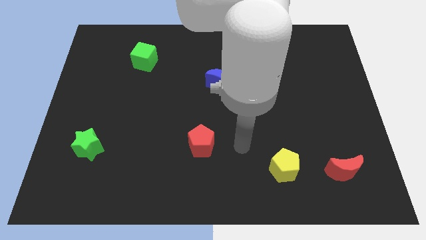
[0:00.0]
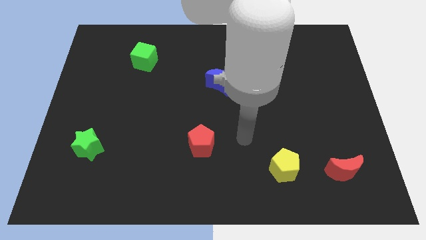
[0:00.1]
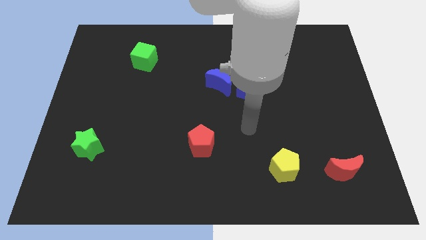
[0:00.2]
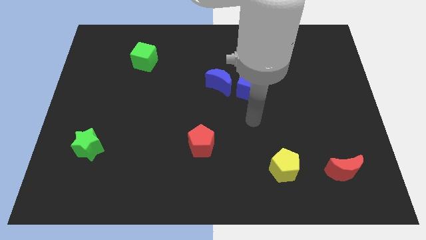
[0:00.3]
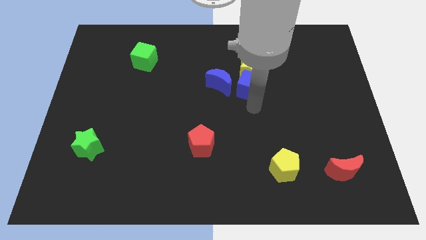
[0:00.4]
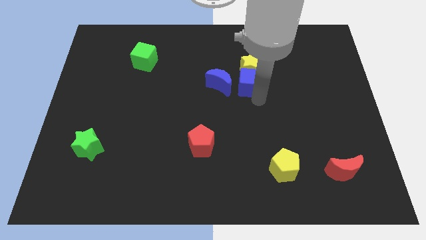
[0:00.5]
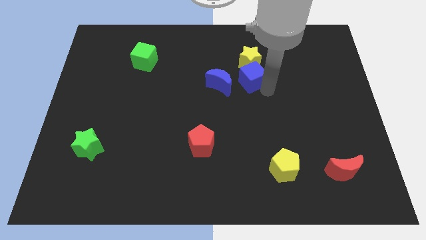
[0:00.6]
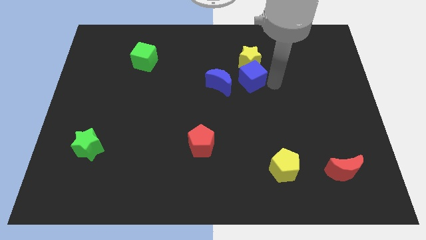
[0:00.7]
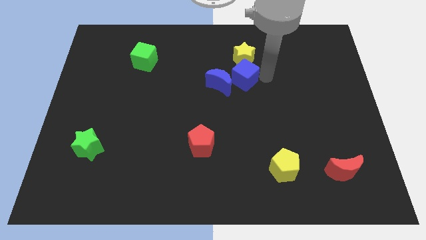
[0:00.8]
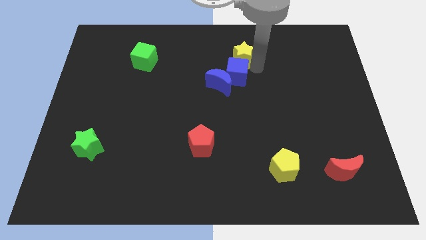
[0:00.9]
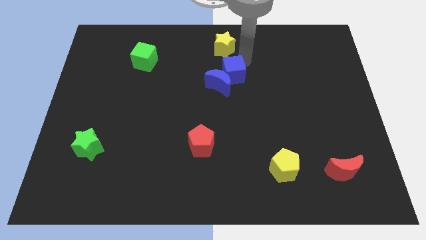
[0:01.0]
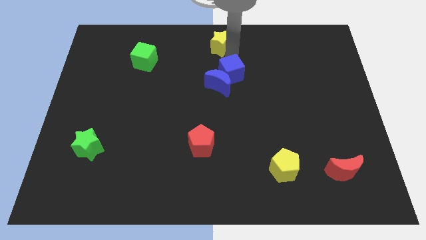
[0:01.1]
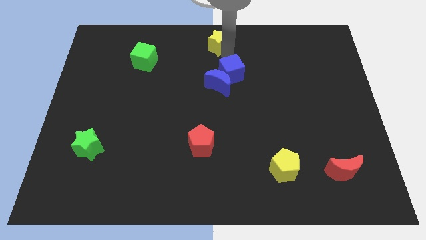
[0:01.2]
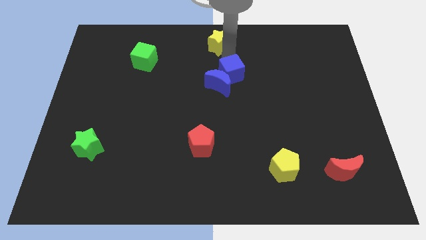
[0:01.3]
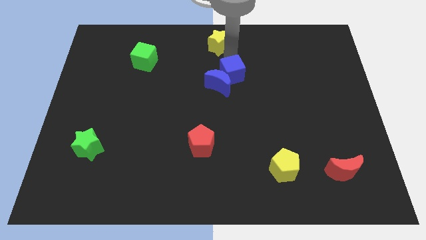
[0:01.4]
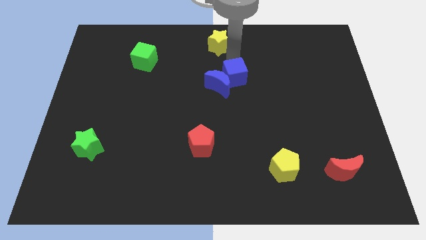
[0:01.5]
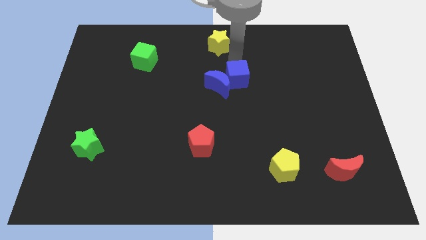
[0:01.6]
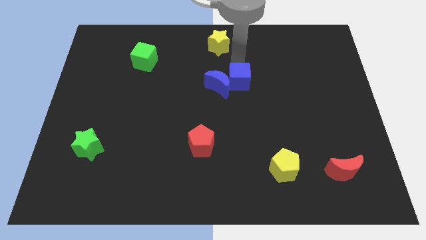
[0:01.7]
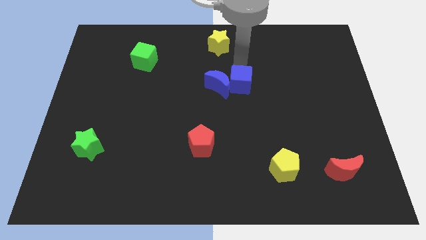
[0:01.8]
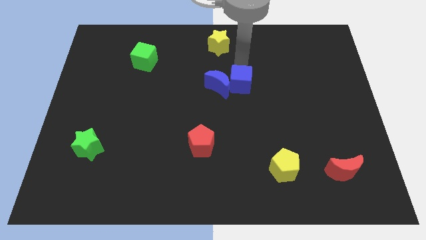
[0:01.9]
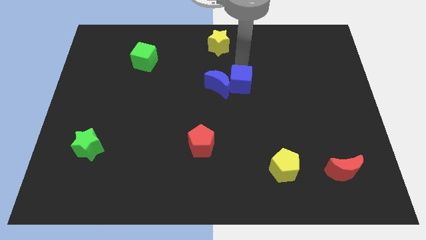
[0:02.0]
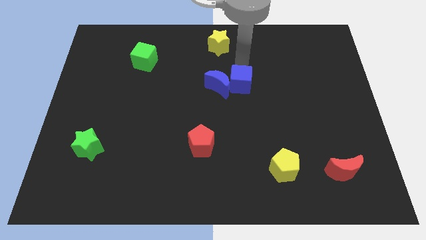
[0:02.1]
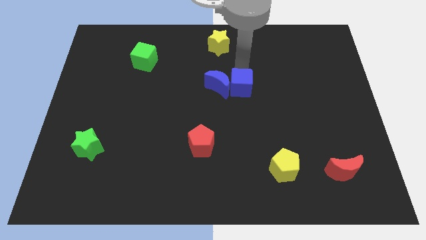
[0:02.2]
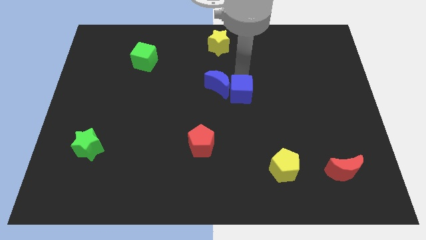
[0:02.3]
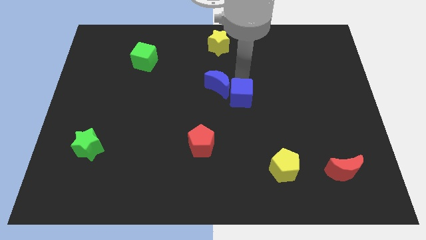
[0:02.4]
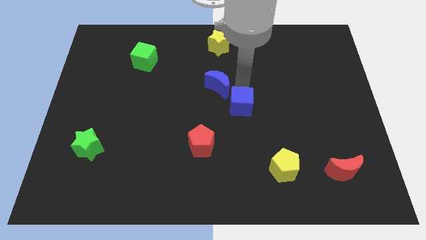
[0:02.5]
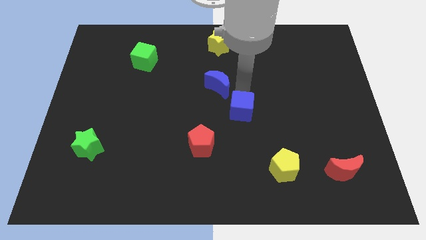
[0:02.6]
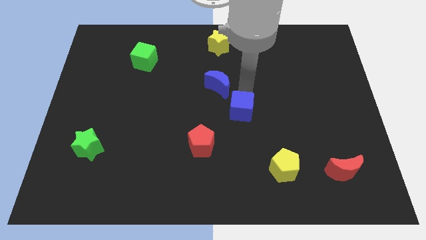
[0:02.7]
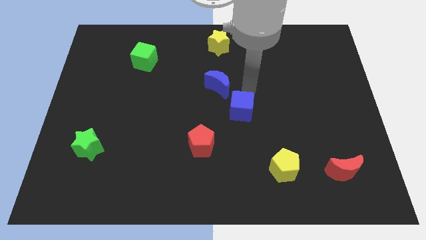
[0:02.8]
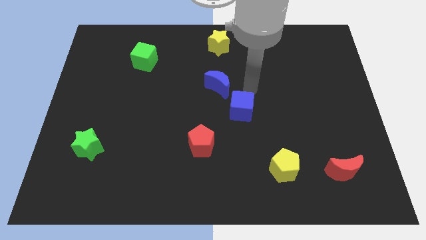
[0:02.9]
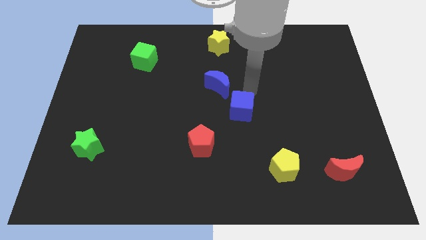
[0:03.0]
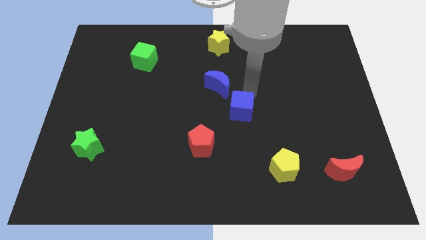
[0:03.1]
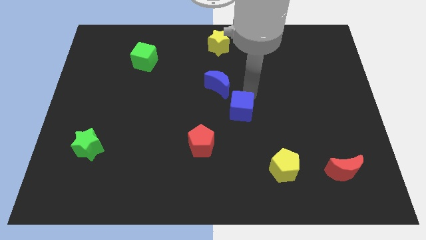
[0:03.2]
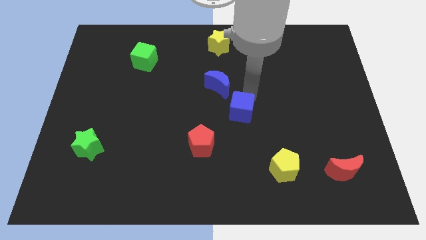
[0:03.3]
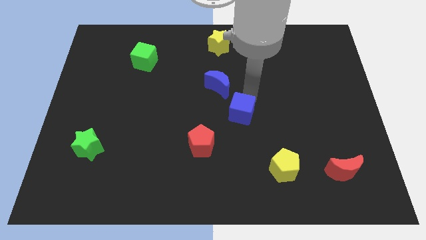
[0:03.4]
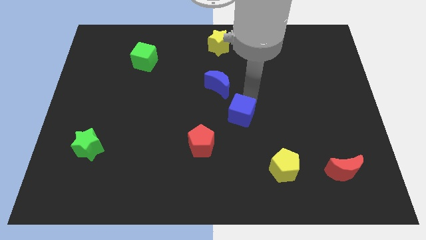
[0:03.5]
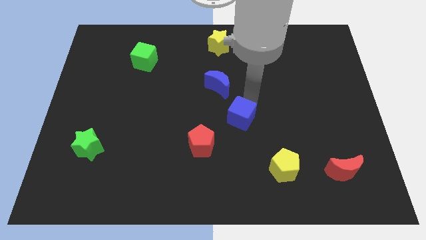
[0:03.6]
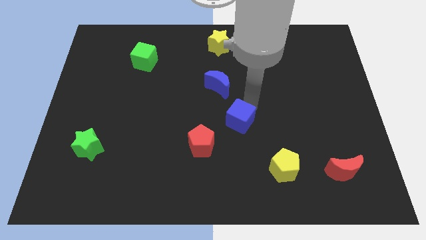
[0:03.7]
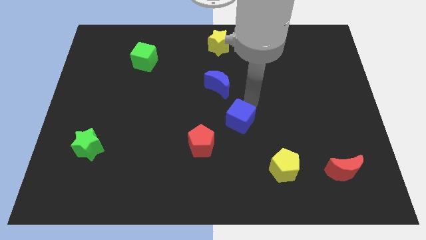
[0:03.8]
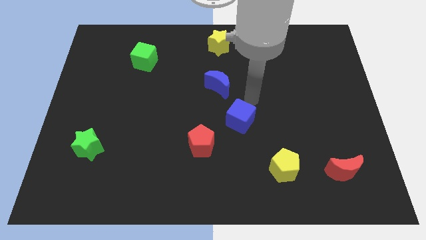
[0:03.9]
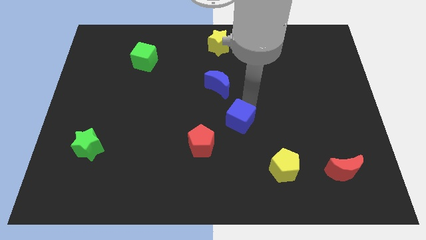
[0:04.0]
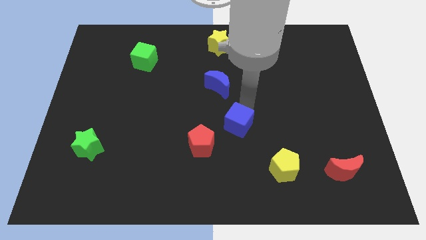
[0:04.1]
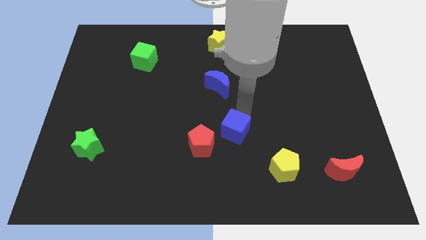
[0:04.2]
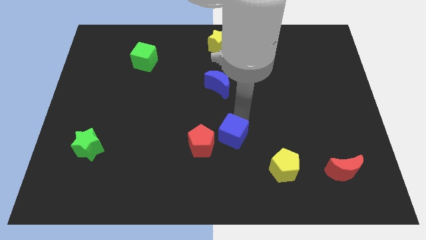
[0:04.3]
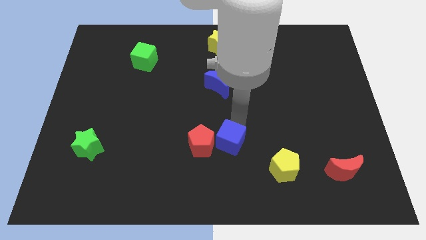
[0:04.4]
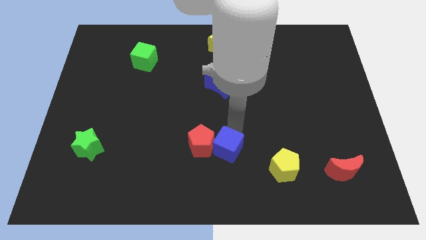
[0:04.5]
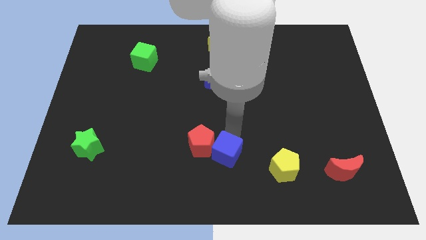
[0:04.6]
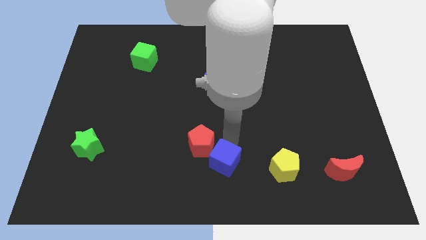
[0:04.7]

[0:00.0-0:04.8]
slide the blue cube to the bottom side

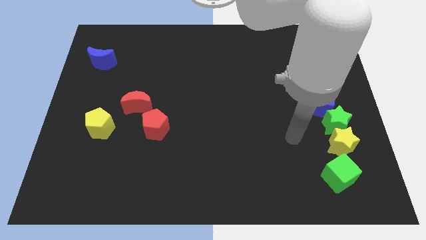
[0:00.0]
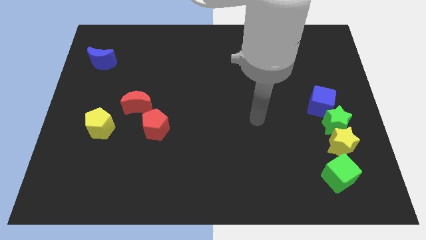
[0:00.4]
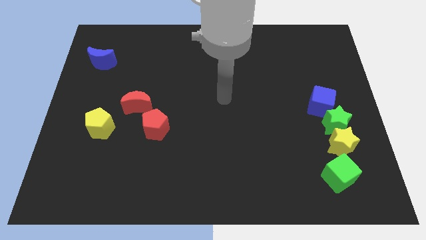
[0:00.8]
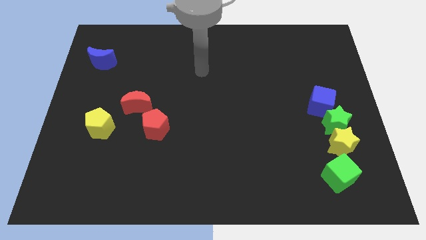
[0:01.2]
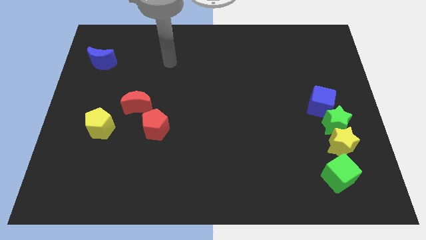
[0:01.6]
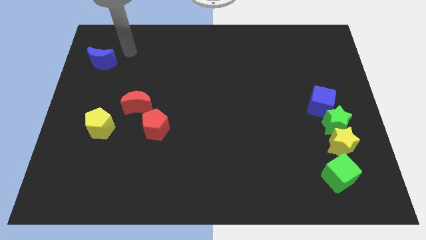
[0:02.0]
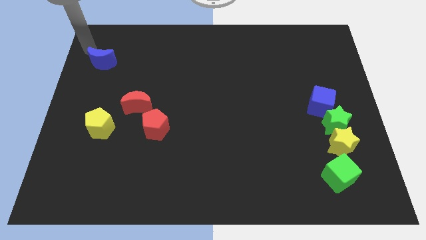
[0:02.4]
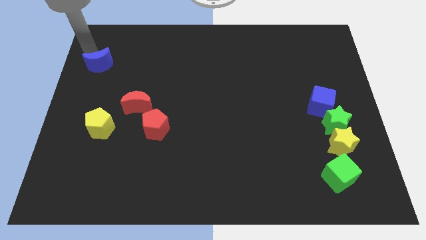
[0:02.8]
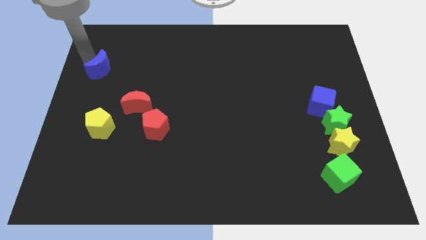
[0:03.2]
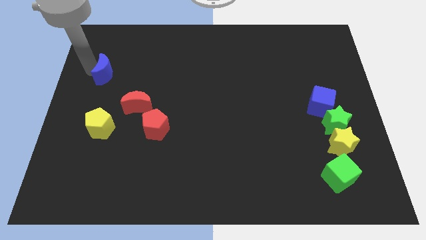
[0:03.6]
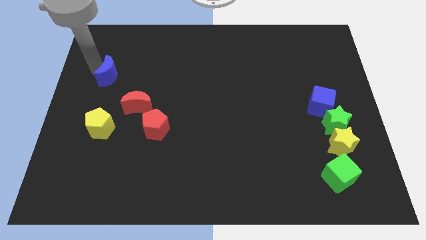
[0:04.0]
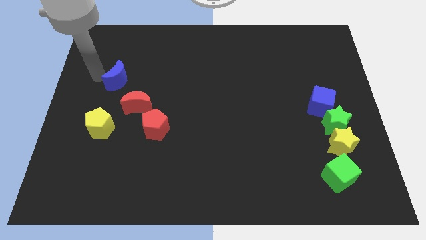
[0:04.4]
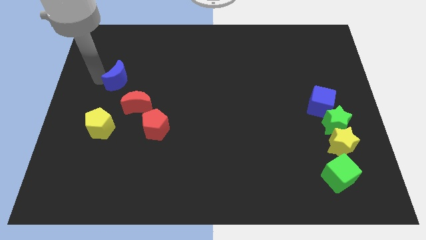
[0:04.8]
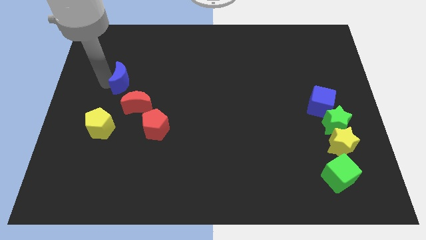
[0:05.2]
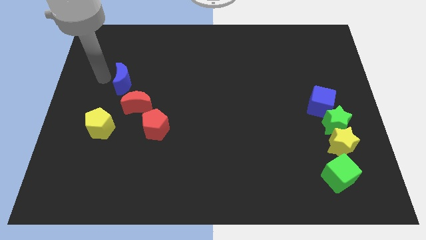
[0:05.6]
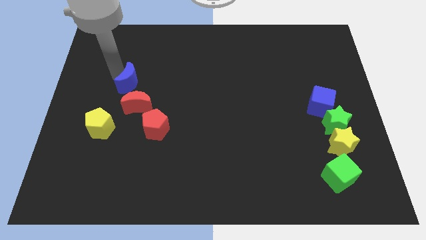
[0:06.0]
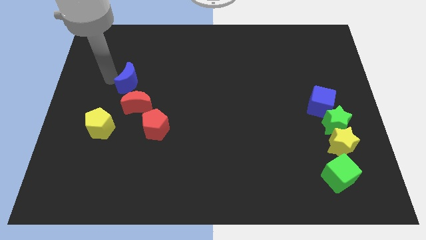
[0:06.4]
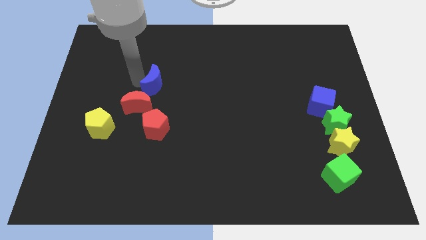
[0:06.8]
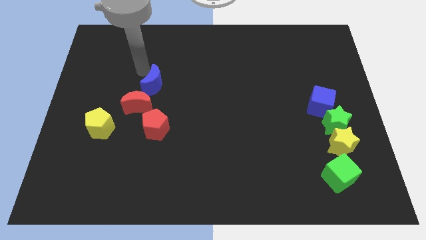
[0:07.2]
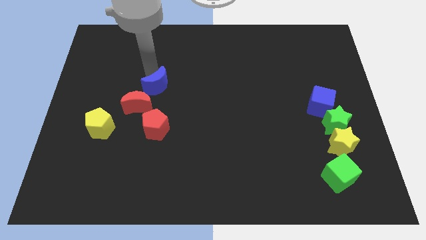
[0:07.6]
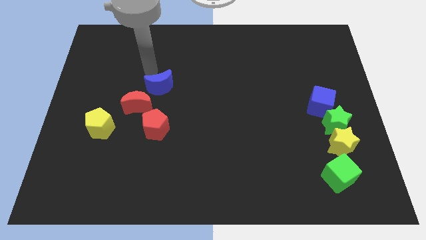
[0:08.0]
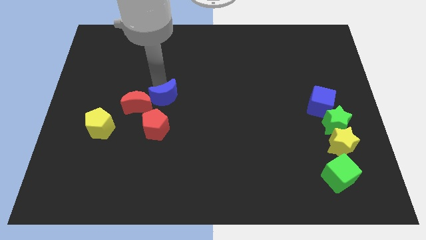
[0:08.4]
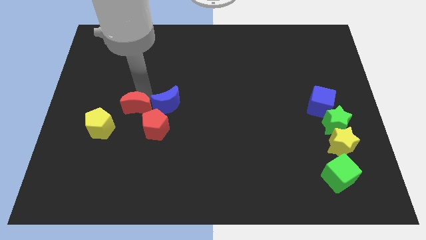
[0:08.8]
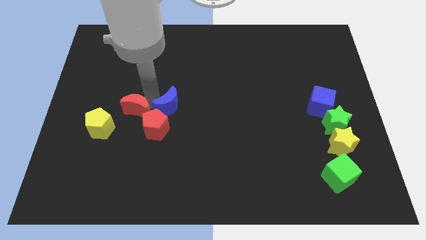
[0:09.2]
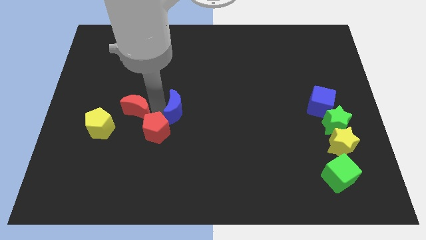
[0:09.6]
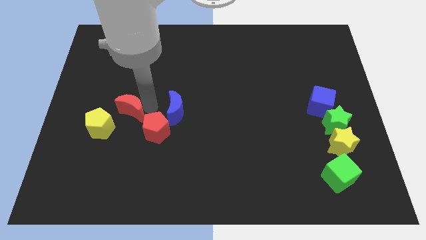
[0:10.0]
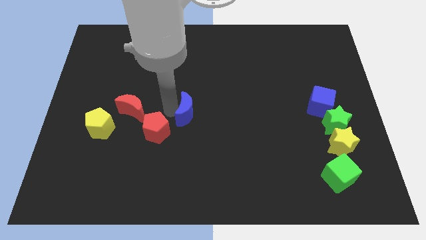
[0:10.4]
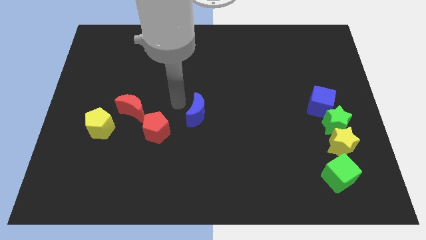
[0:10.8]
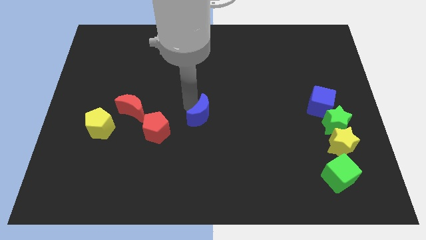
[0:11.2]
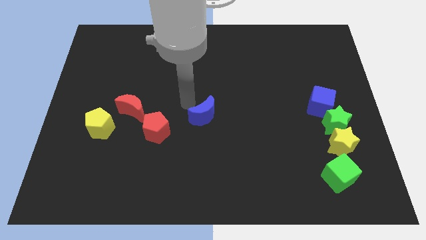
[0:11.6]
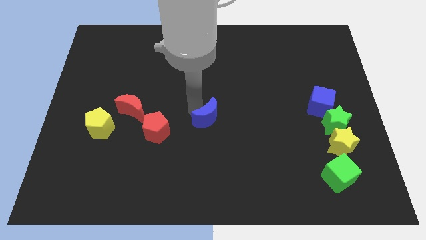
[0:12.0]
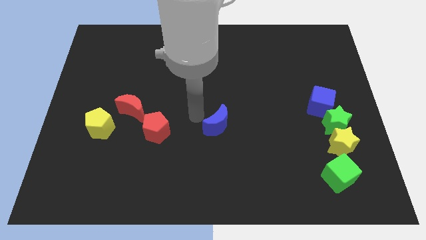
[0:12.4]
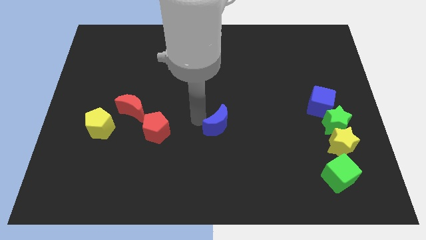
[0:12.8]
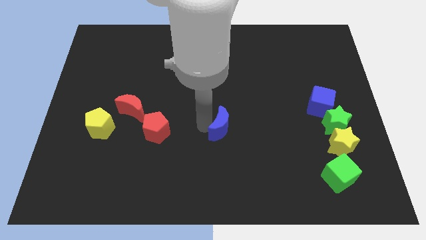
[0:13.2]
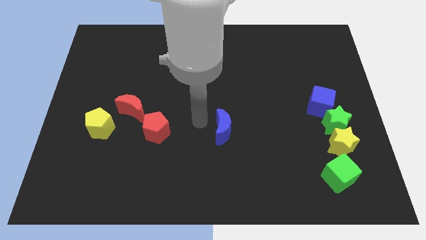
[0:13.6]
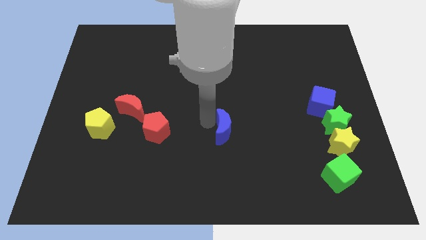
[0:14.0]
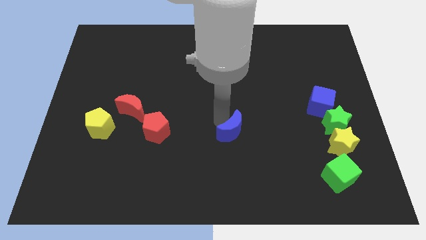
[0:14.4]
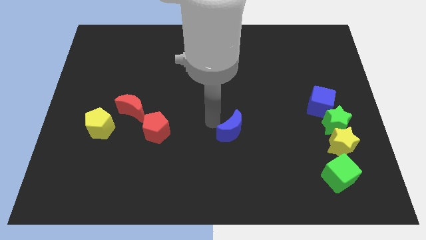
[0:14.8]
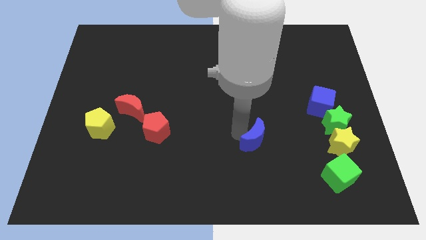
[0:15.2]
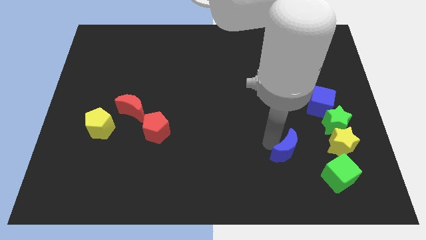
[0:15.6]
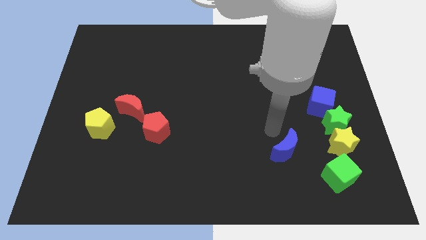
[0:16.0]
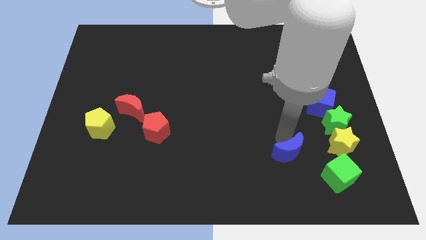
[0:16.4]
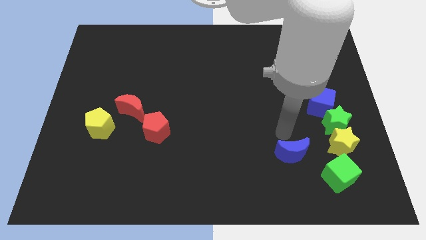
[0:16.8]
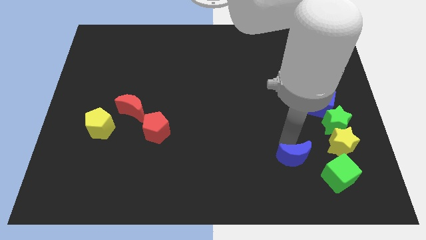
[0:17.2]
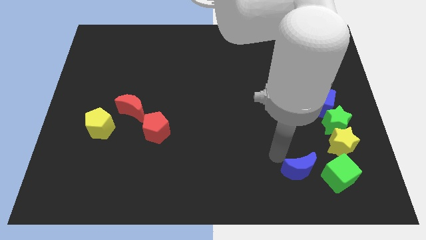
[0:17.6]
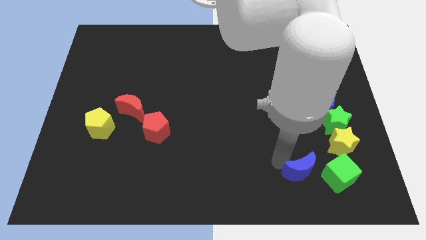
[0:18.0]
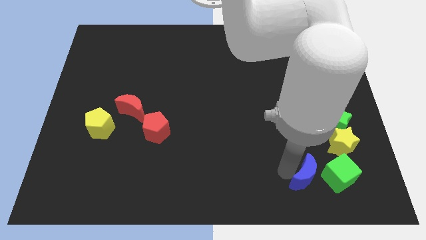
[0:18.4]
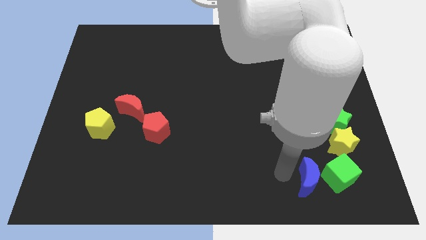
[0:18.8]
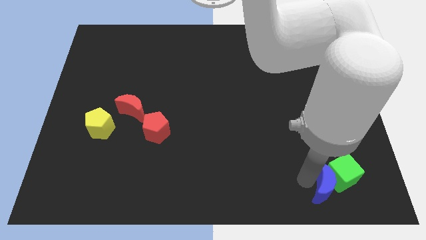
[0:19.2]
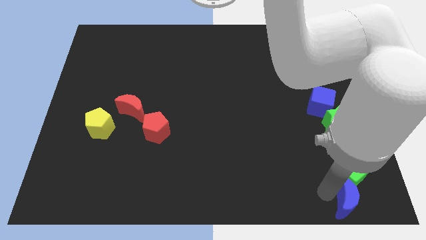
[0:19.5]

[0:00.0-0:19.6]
push the blue moon to the bottom right
